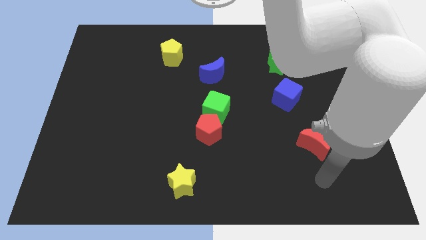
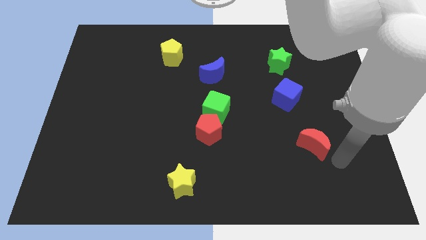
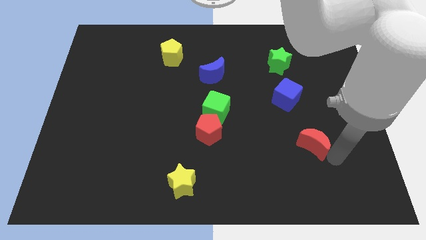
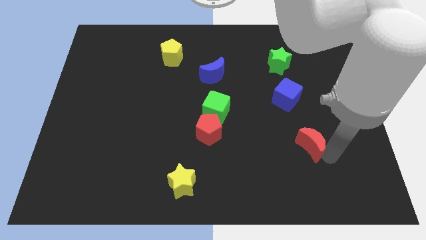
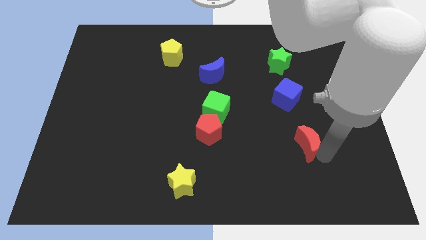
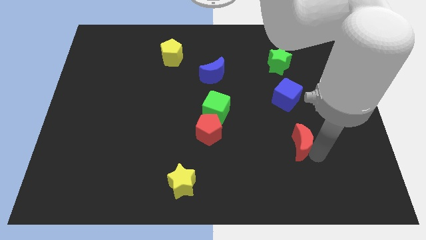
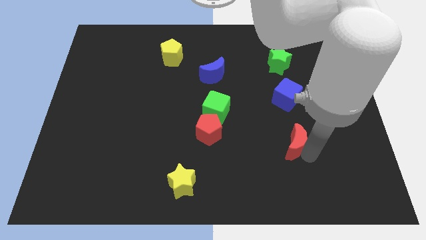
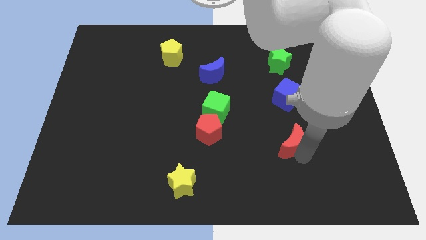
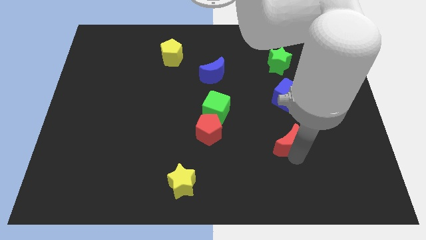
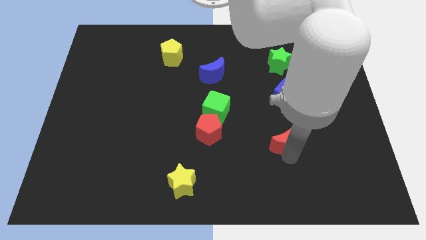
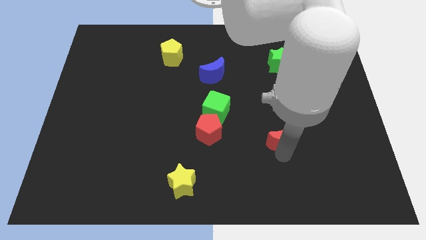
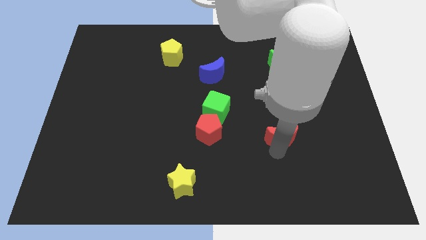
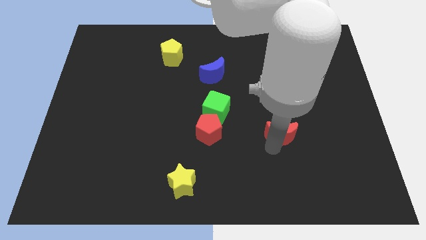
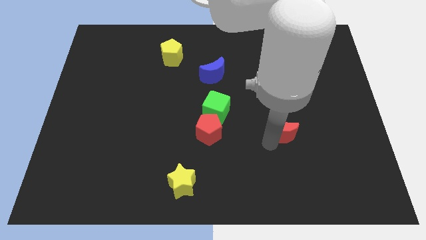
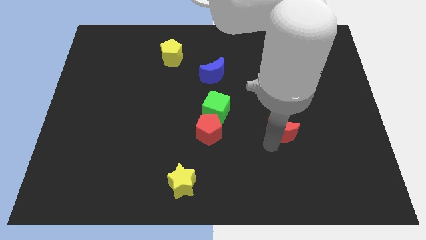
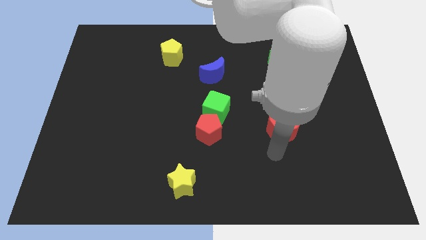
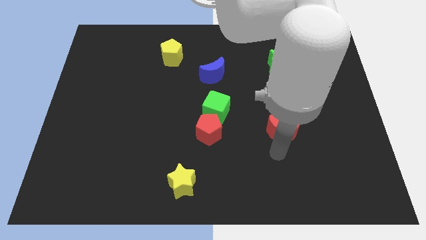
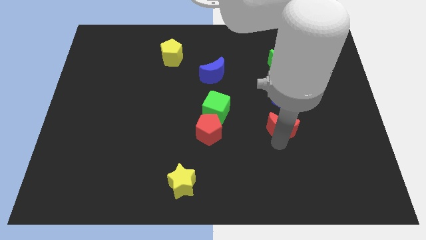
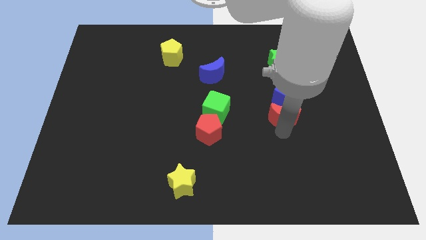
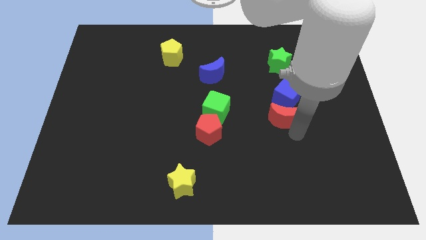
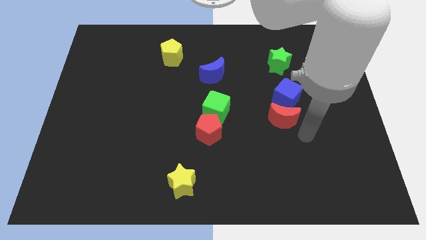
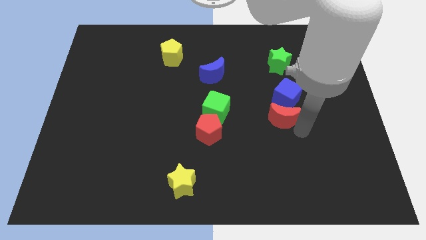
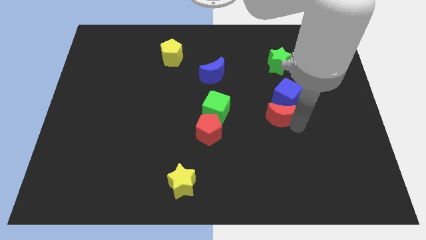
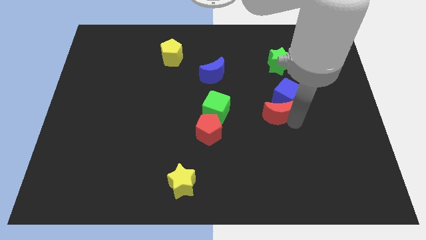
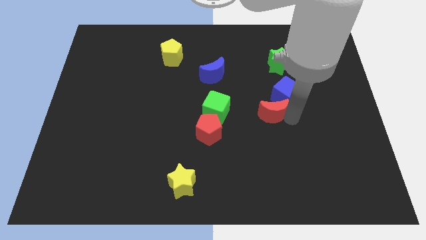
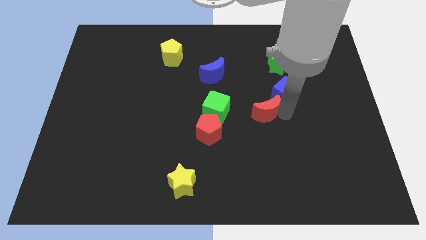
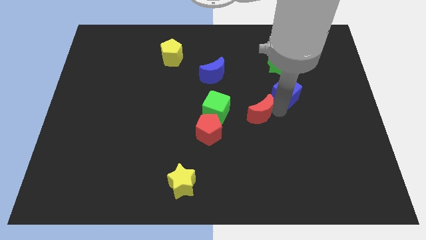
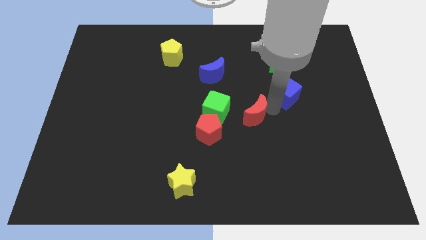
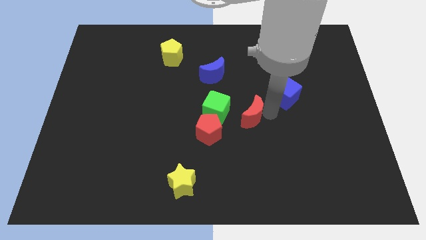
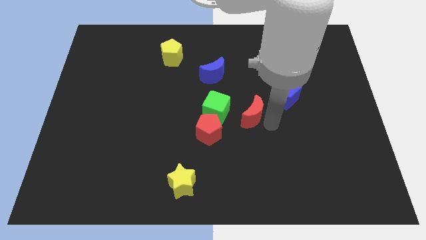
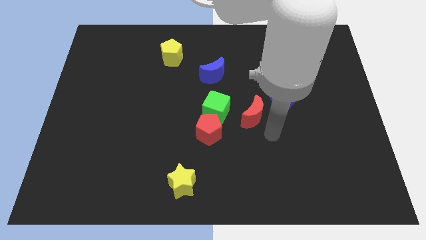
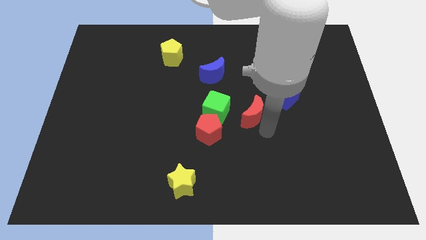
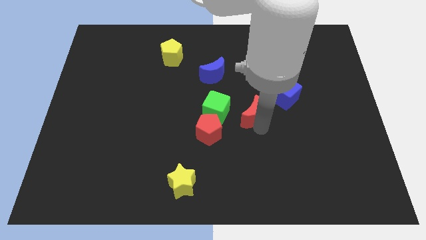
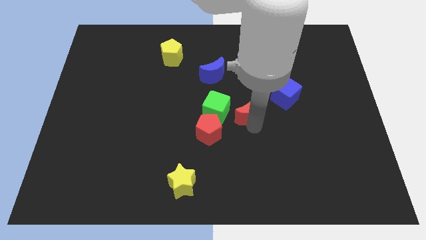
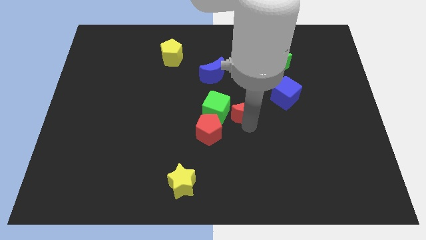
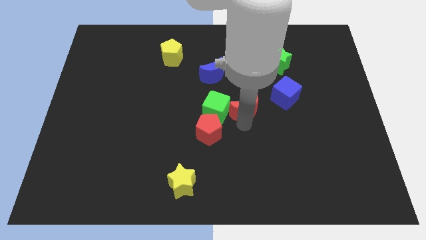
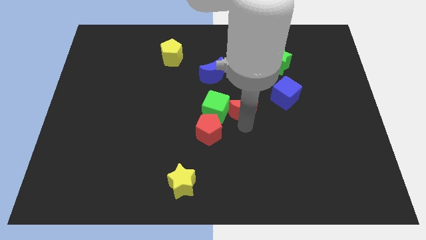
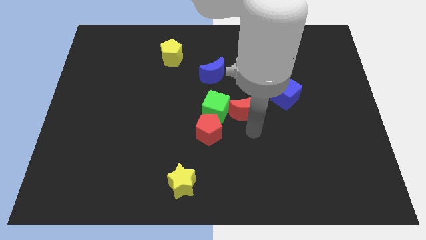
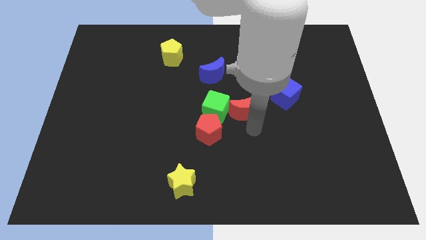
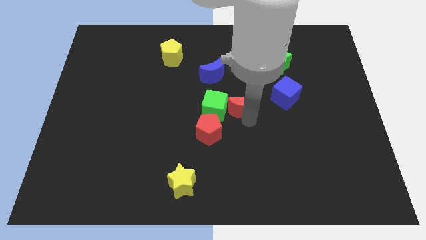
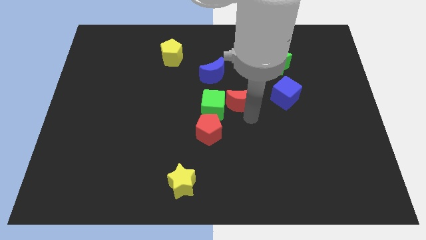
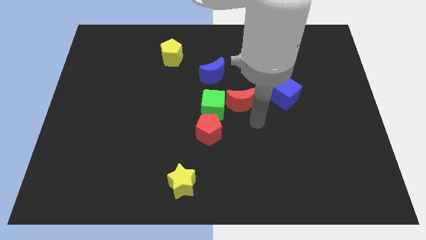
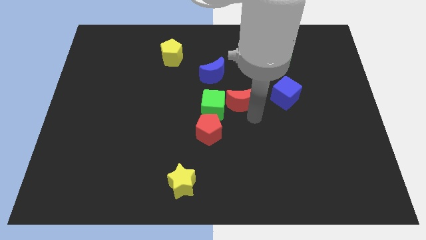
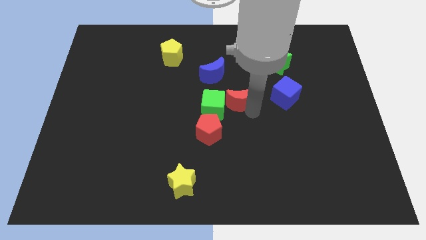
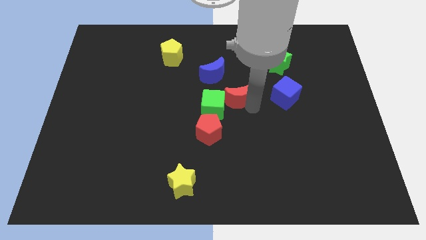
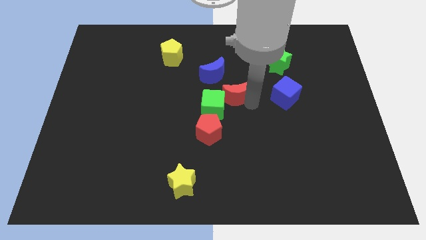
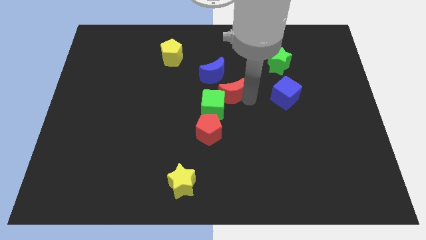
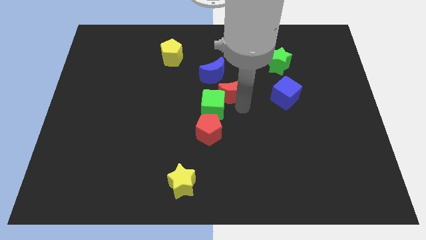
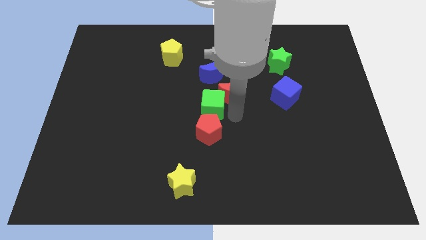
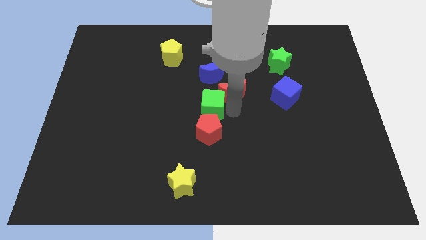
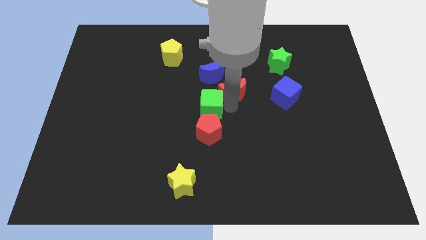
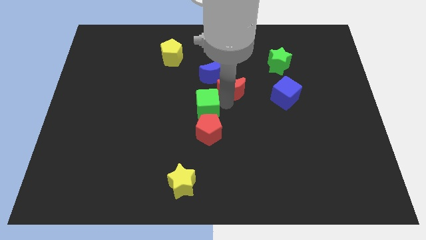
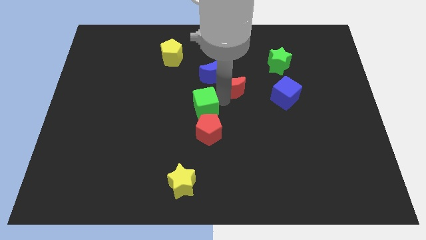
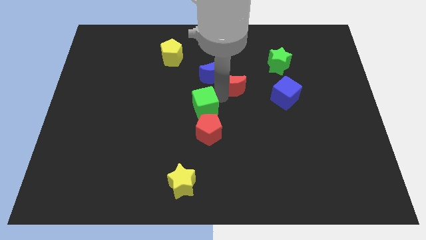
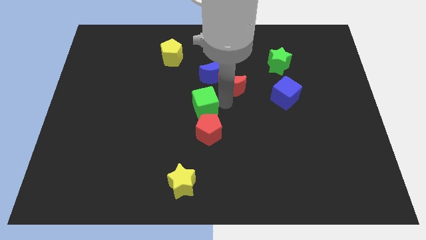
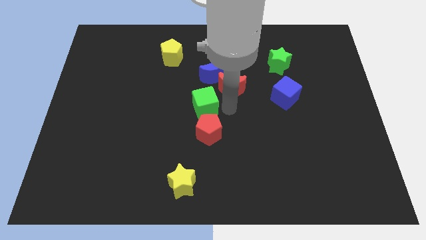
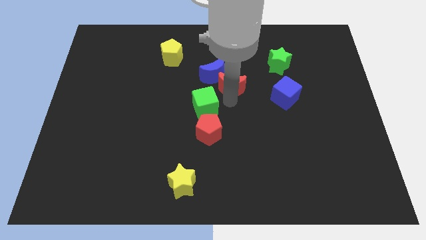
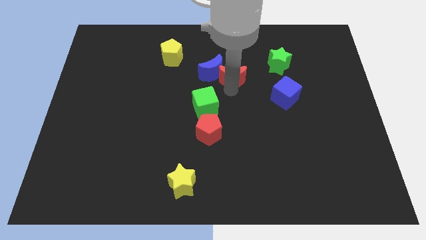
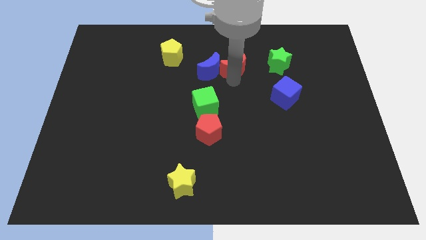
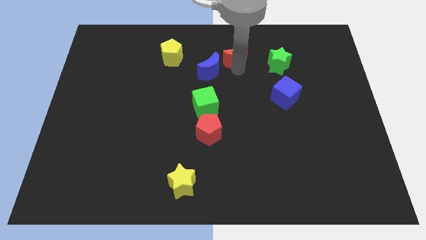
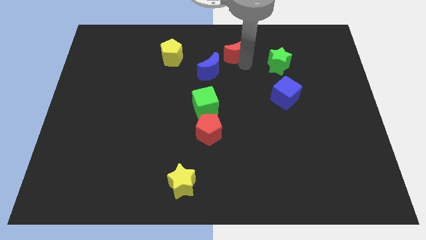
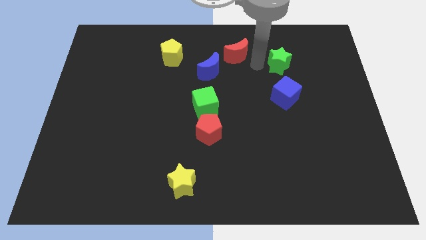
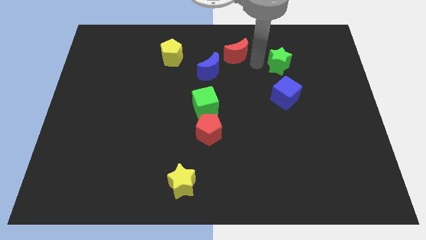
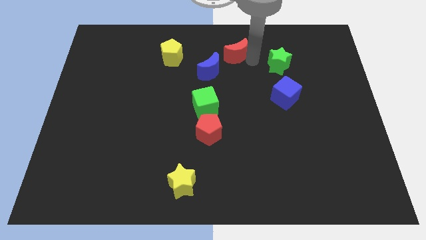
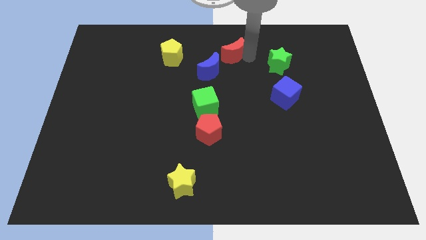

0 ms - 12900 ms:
move the red moon to the towards your base
